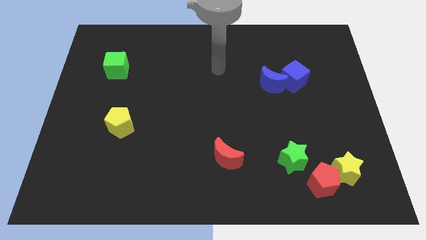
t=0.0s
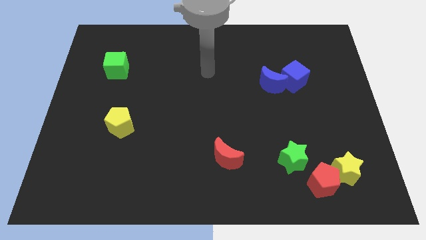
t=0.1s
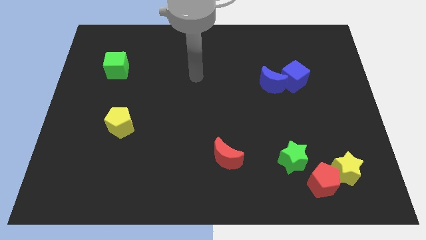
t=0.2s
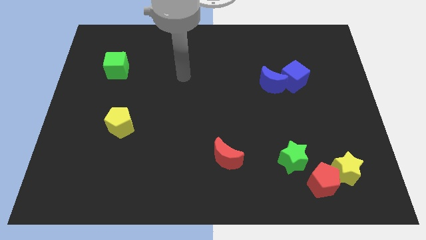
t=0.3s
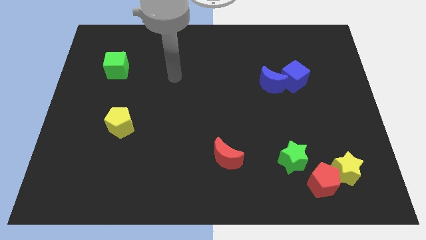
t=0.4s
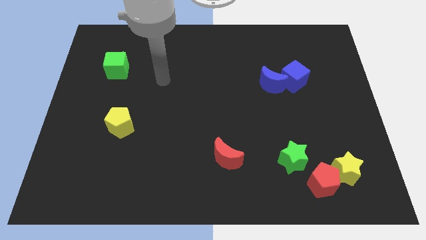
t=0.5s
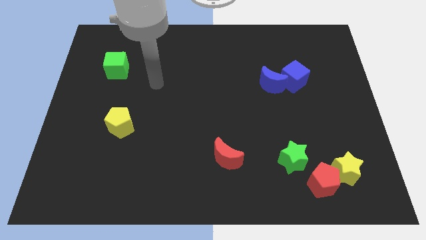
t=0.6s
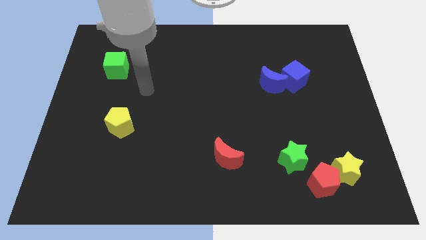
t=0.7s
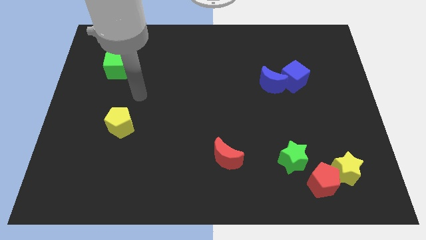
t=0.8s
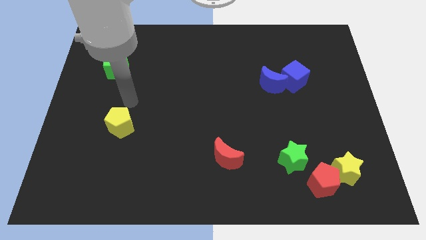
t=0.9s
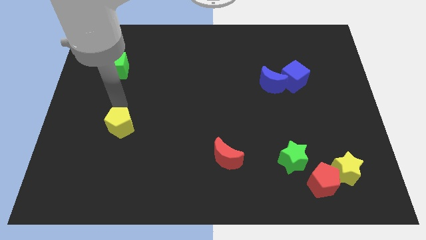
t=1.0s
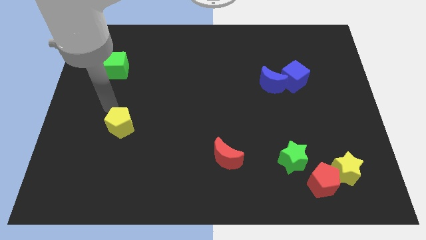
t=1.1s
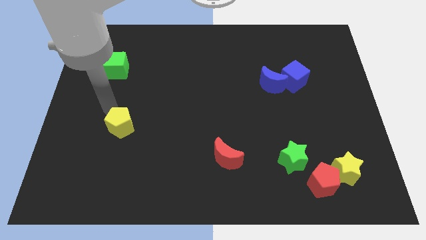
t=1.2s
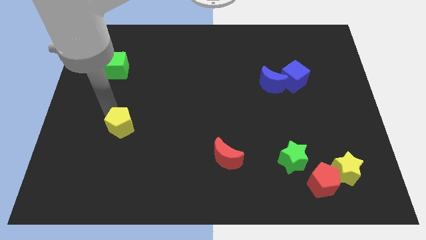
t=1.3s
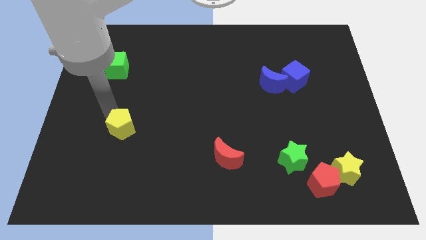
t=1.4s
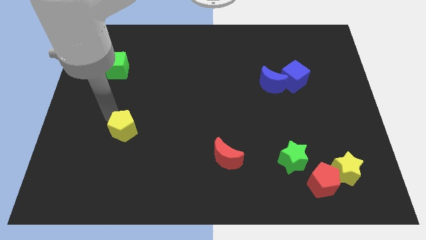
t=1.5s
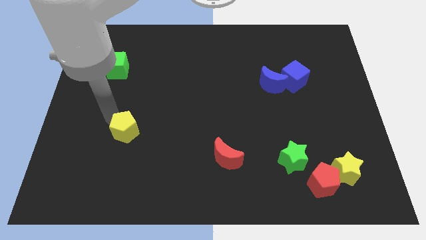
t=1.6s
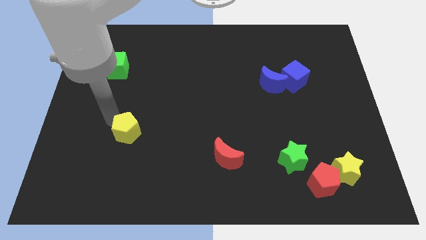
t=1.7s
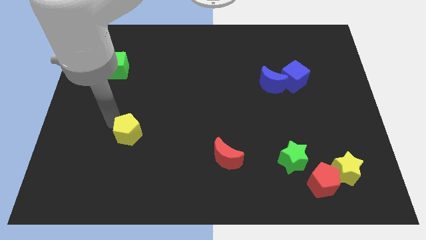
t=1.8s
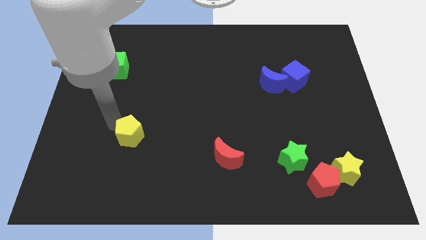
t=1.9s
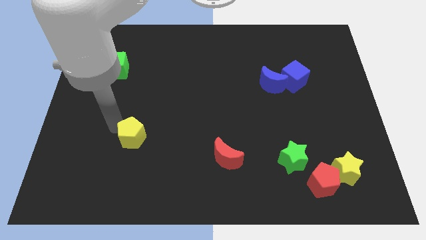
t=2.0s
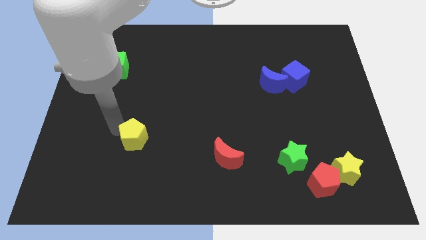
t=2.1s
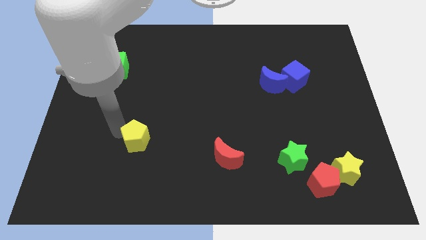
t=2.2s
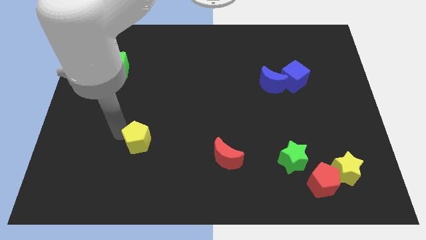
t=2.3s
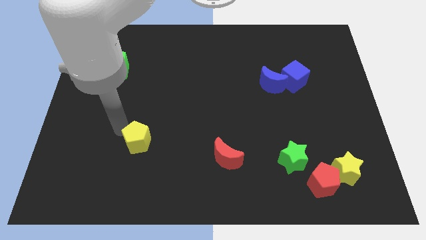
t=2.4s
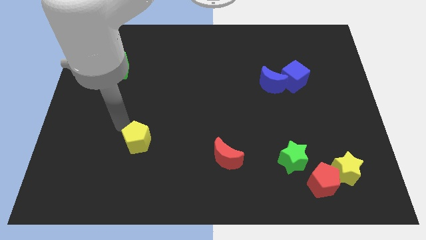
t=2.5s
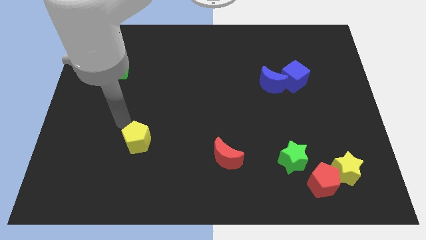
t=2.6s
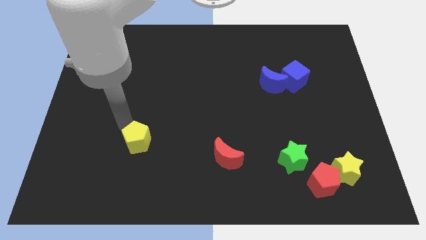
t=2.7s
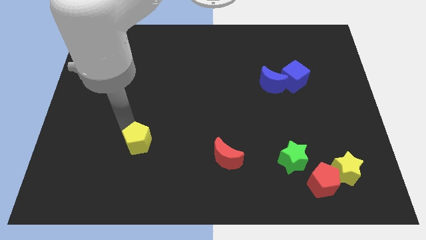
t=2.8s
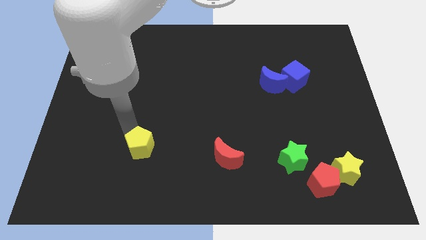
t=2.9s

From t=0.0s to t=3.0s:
slightly push the yellow pentagon downwards and right diagonally

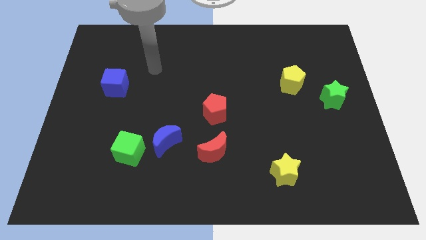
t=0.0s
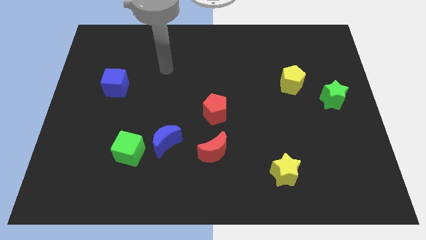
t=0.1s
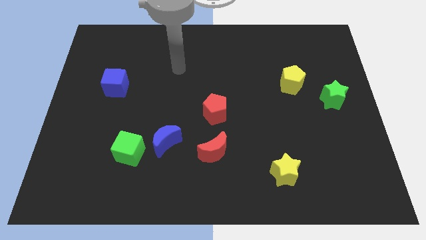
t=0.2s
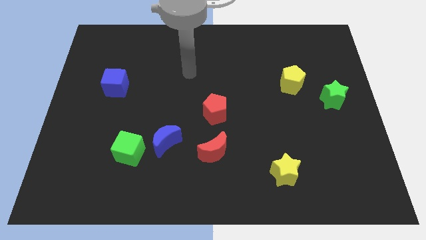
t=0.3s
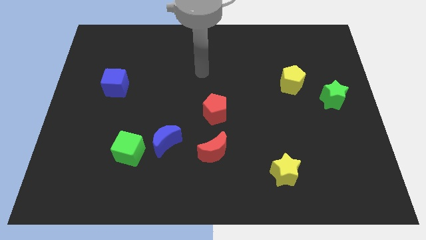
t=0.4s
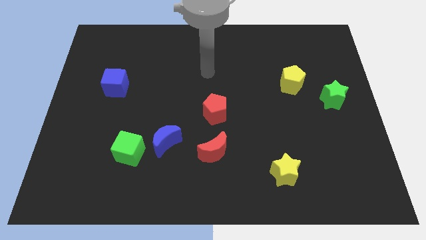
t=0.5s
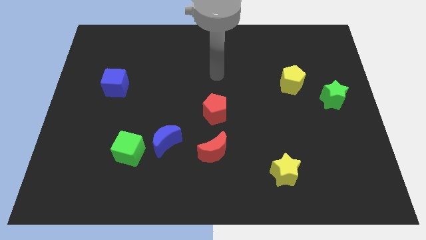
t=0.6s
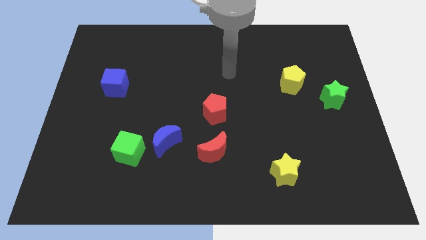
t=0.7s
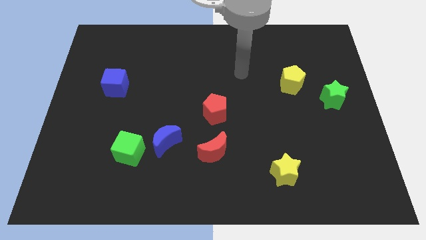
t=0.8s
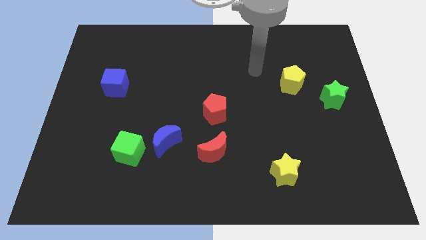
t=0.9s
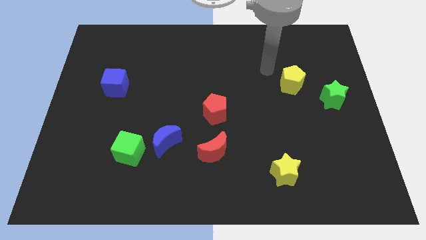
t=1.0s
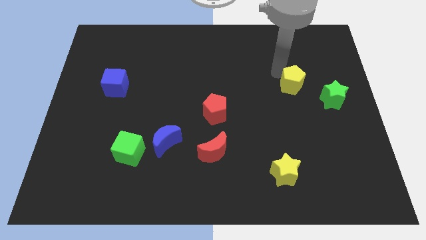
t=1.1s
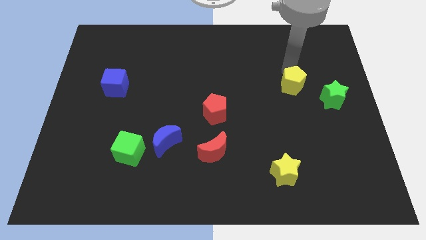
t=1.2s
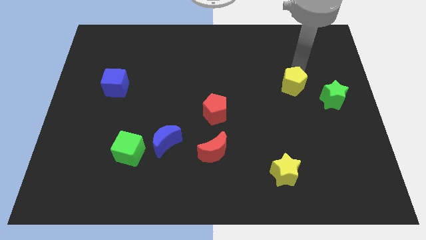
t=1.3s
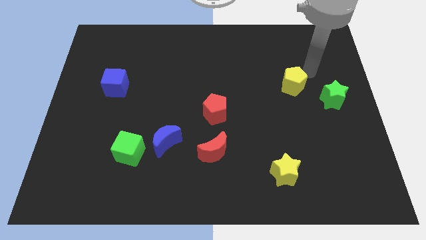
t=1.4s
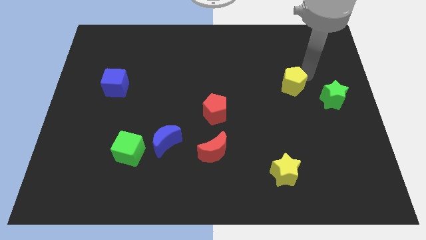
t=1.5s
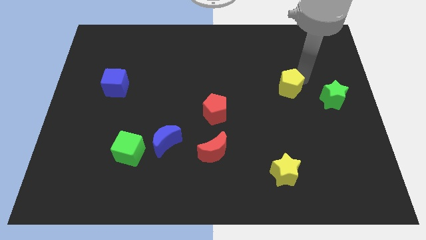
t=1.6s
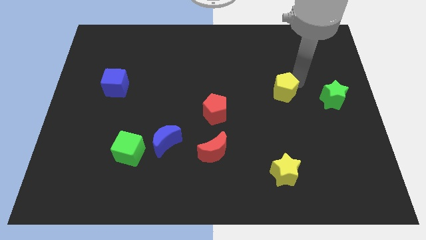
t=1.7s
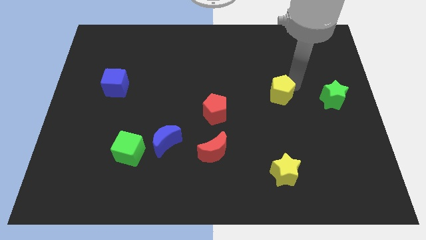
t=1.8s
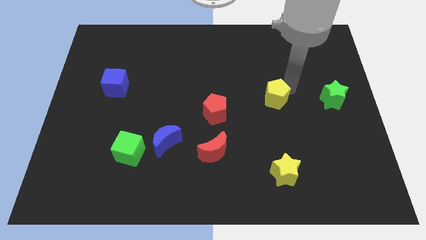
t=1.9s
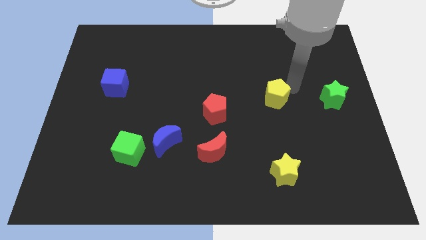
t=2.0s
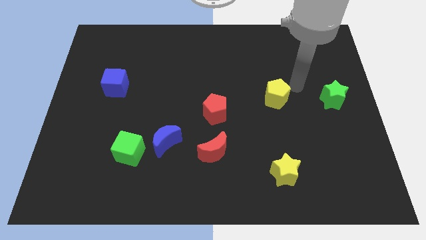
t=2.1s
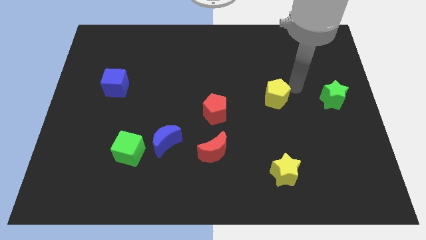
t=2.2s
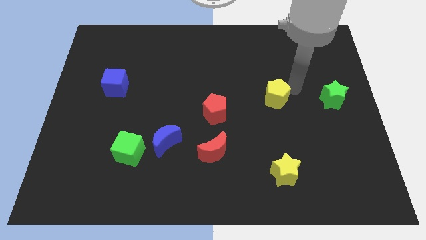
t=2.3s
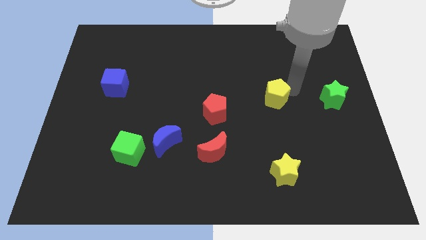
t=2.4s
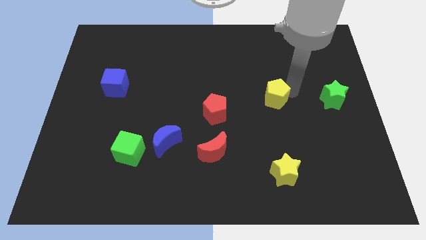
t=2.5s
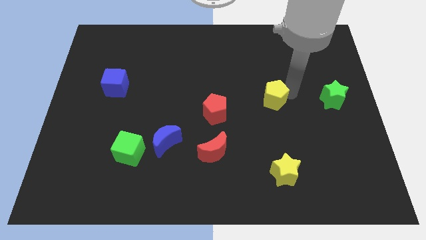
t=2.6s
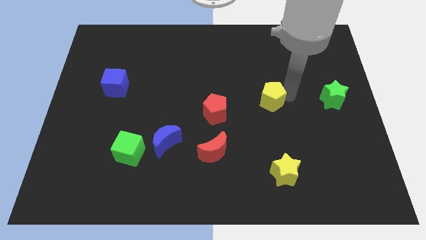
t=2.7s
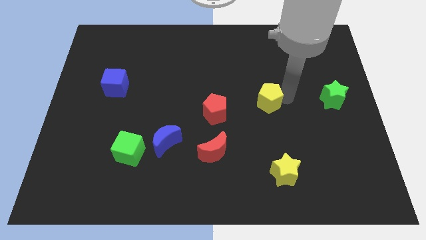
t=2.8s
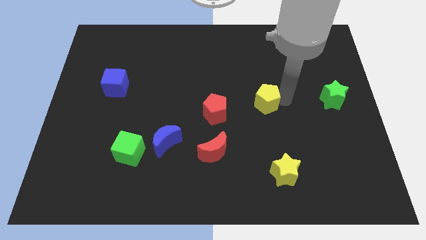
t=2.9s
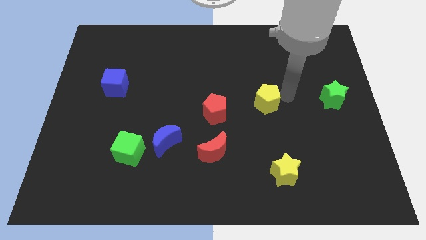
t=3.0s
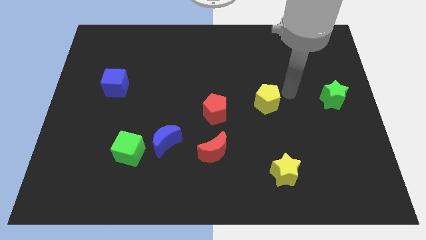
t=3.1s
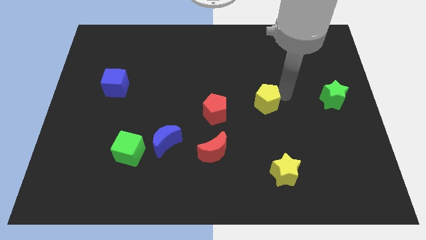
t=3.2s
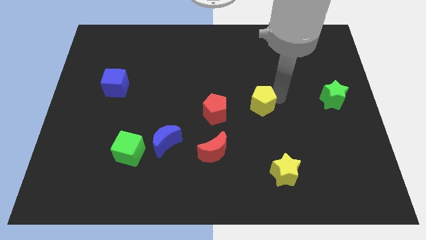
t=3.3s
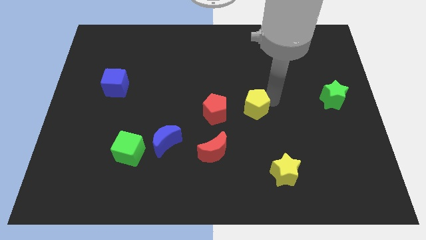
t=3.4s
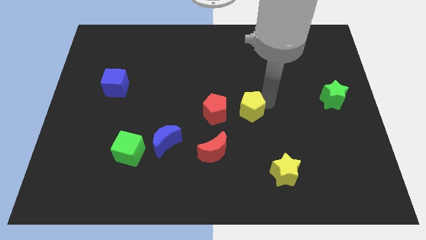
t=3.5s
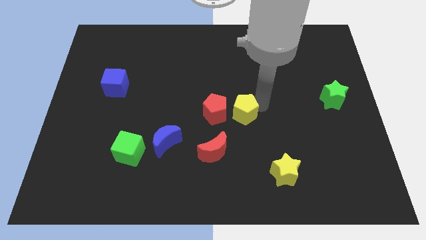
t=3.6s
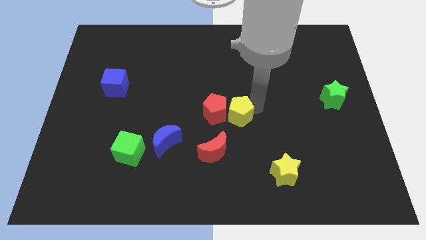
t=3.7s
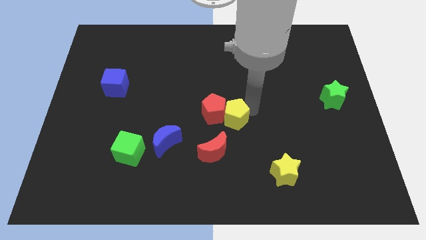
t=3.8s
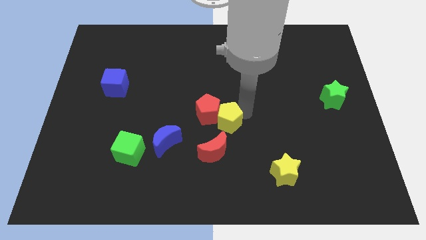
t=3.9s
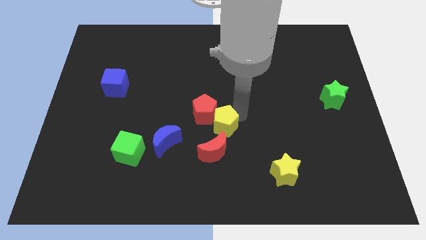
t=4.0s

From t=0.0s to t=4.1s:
move the yellow pentagon downwards and then left

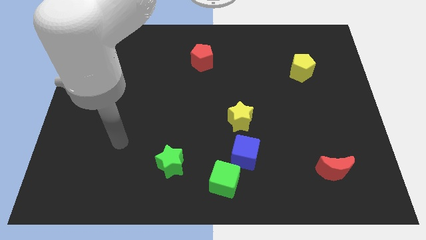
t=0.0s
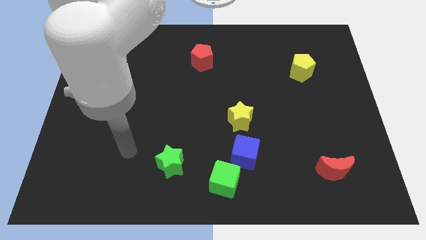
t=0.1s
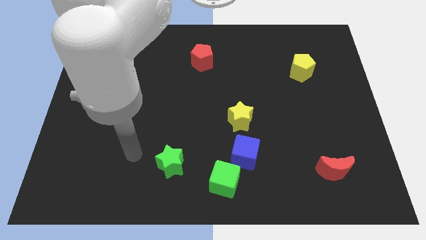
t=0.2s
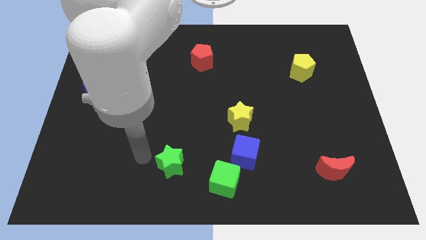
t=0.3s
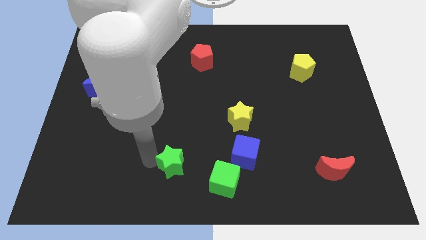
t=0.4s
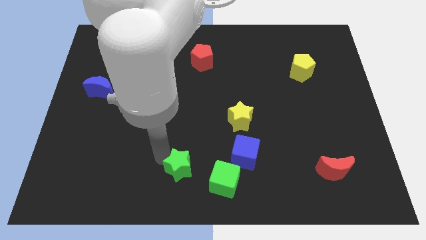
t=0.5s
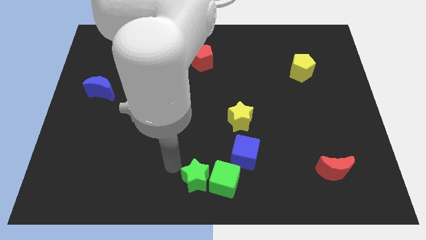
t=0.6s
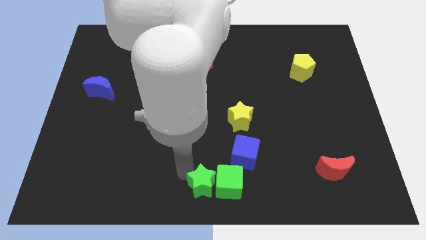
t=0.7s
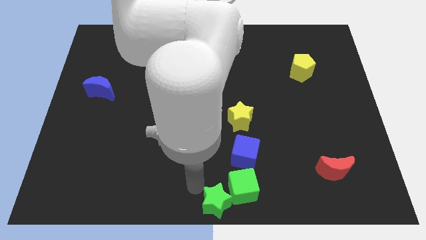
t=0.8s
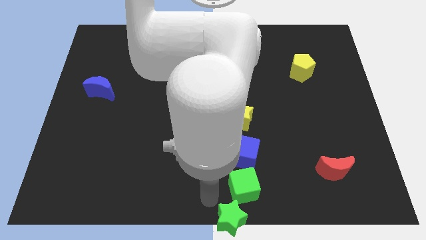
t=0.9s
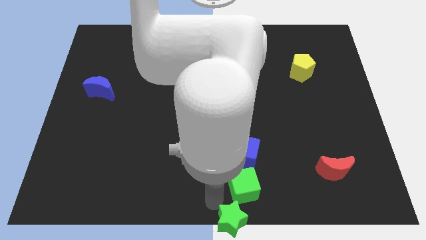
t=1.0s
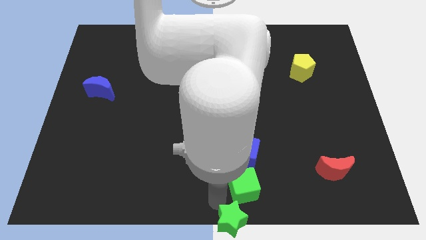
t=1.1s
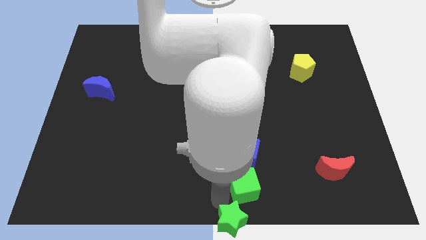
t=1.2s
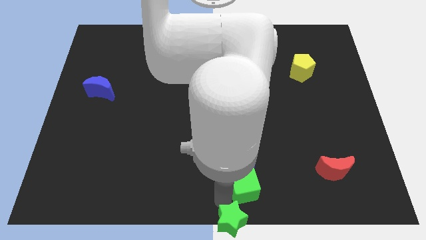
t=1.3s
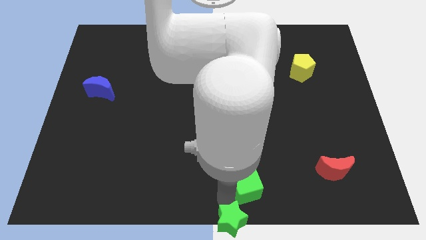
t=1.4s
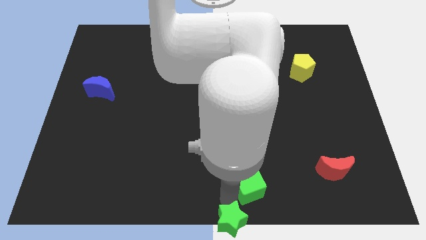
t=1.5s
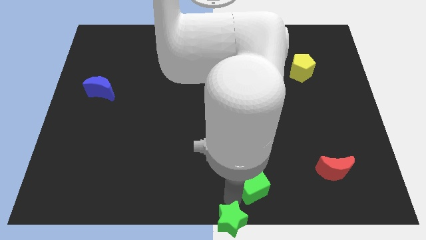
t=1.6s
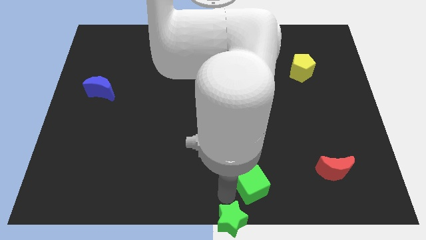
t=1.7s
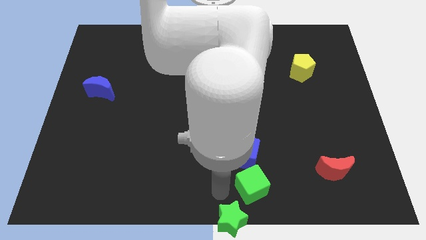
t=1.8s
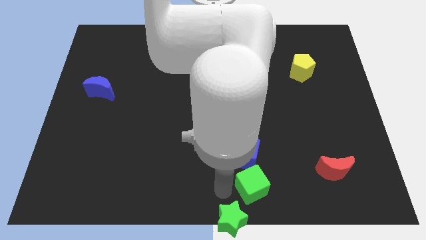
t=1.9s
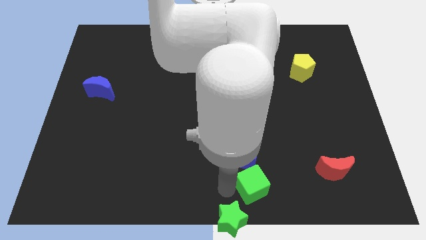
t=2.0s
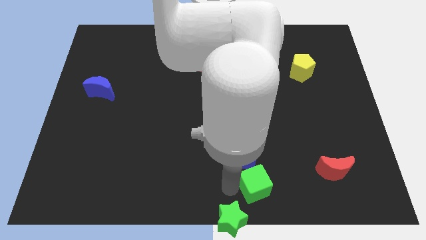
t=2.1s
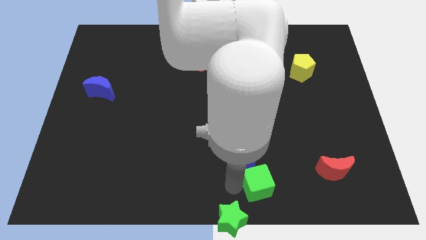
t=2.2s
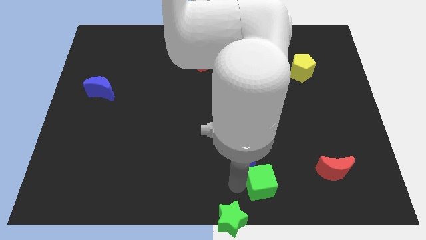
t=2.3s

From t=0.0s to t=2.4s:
slightly push the green cube right
